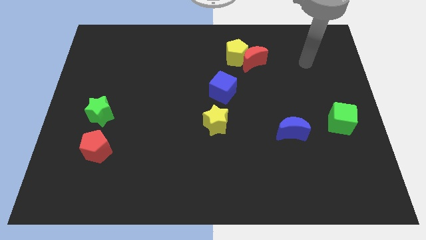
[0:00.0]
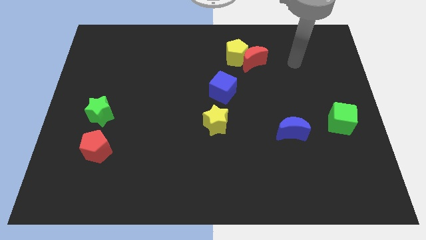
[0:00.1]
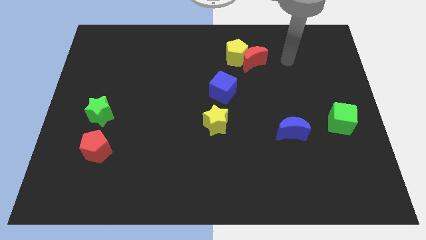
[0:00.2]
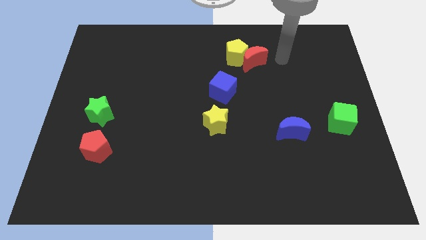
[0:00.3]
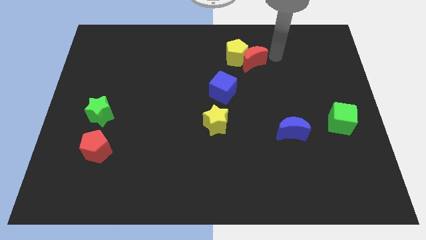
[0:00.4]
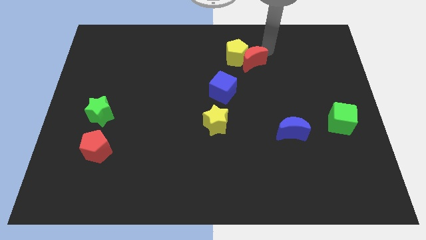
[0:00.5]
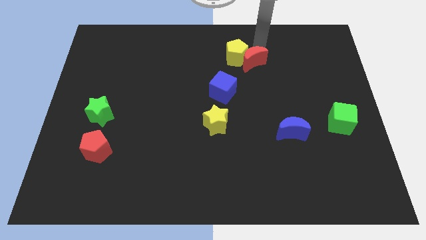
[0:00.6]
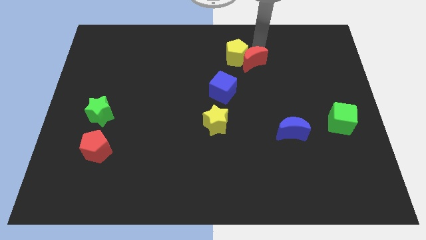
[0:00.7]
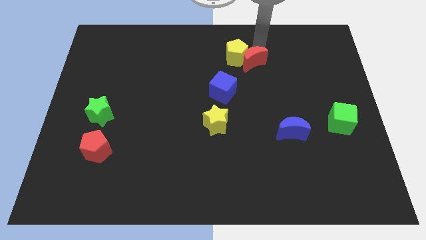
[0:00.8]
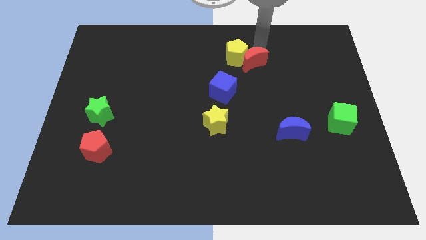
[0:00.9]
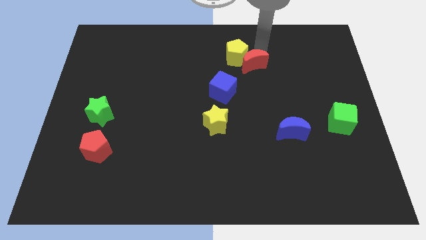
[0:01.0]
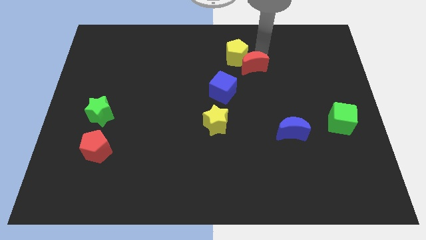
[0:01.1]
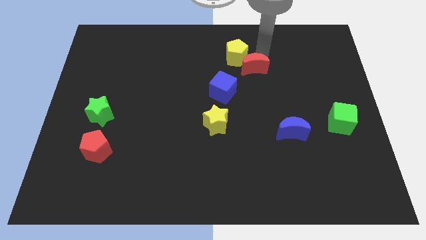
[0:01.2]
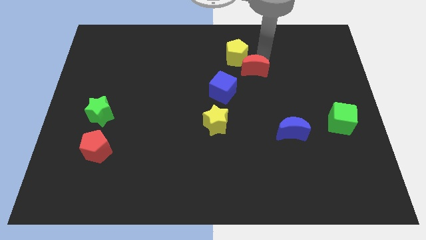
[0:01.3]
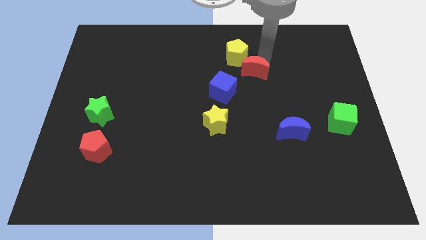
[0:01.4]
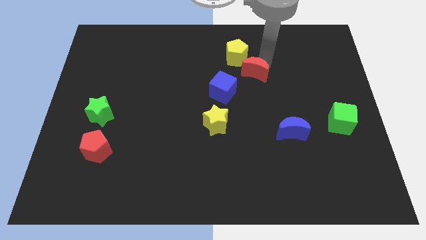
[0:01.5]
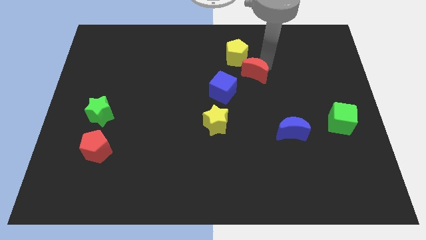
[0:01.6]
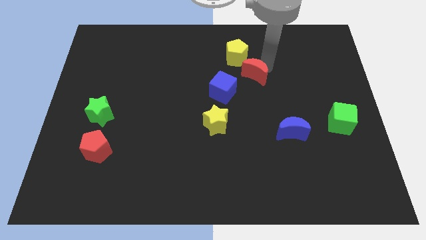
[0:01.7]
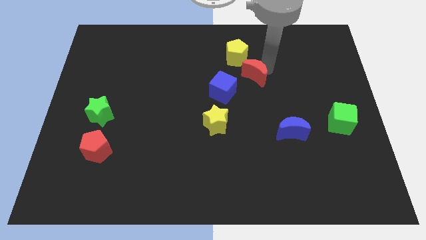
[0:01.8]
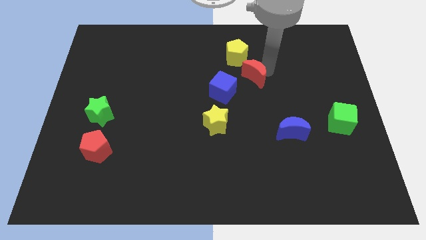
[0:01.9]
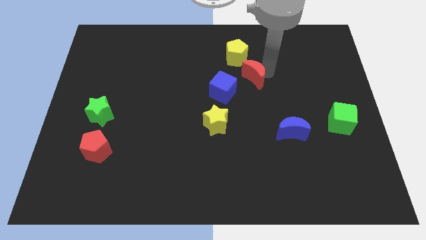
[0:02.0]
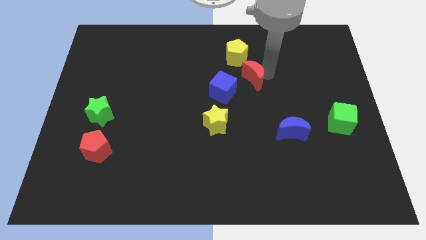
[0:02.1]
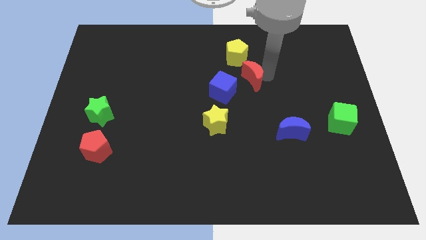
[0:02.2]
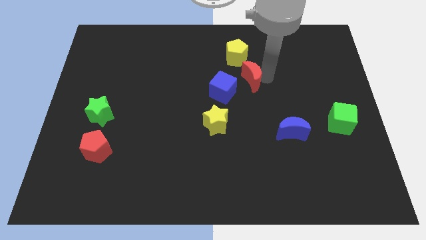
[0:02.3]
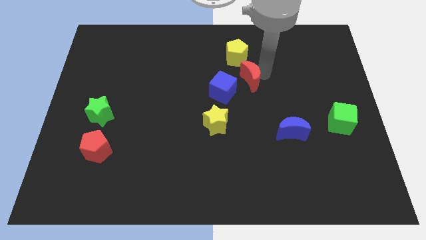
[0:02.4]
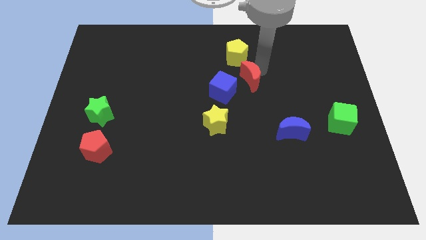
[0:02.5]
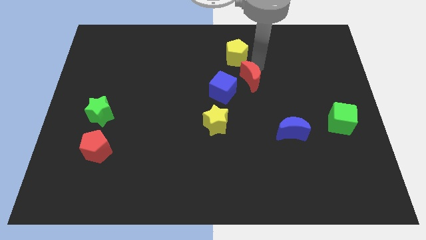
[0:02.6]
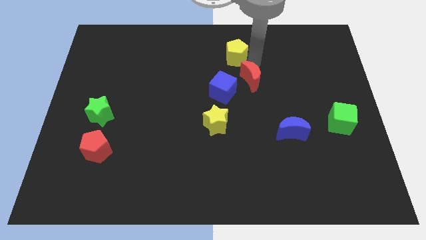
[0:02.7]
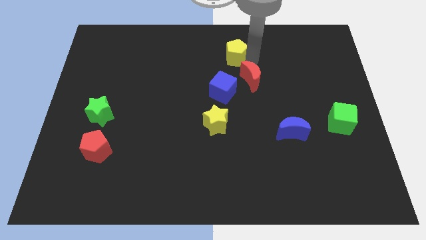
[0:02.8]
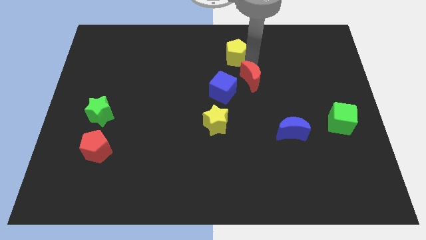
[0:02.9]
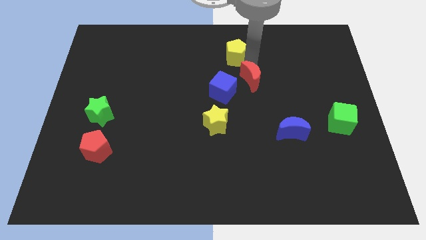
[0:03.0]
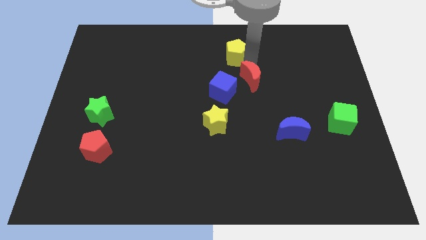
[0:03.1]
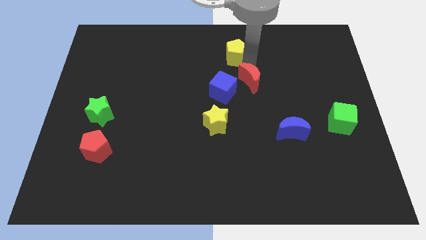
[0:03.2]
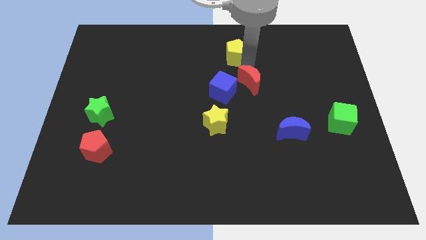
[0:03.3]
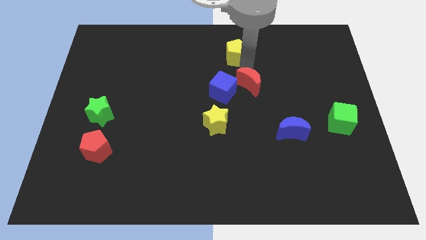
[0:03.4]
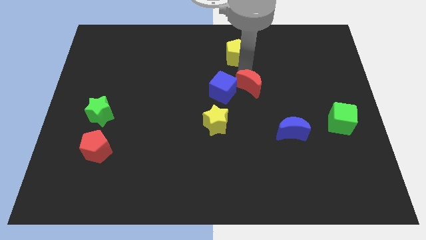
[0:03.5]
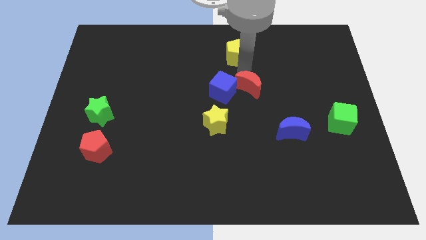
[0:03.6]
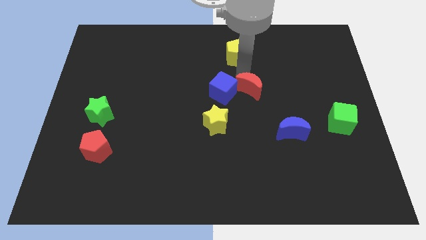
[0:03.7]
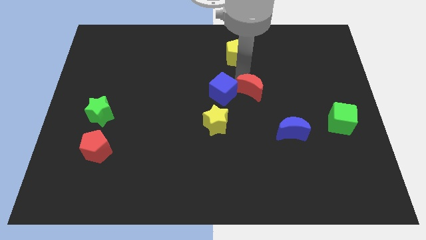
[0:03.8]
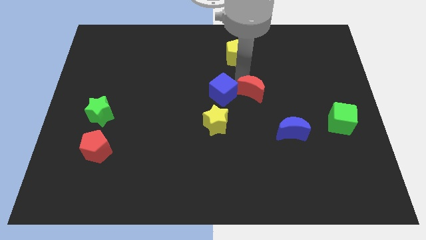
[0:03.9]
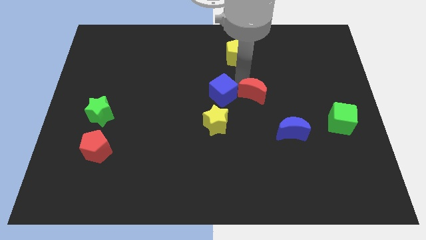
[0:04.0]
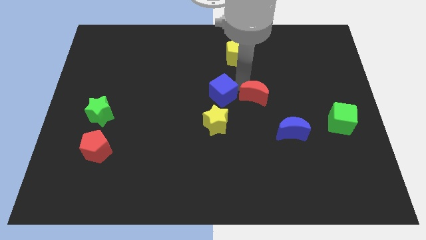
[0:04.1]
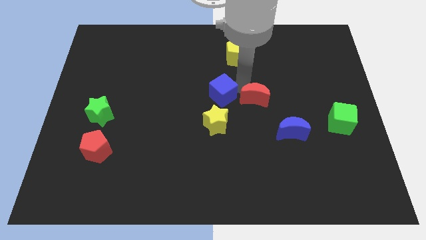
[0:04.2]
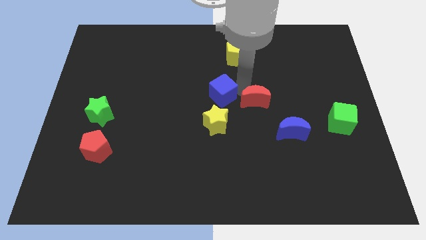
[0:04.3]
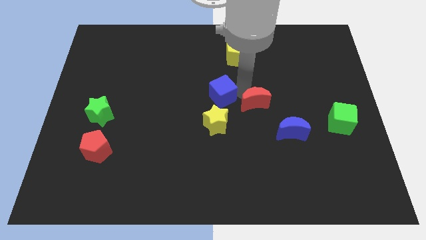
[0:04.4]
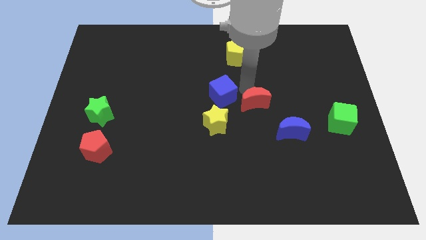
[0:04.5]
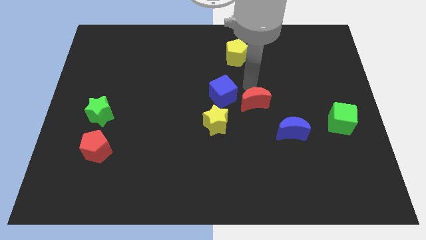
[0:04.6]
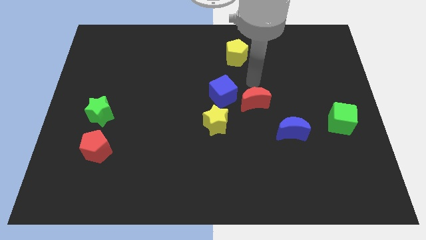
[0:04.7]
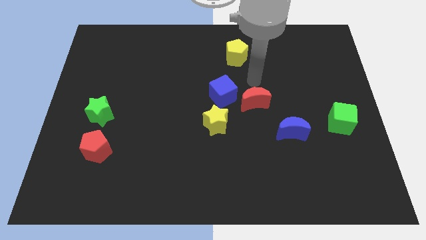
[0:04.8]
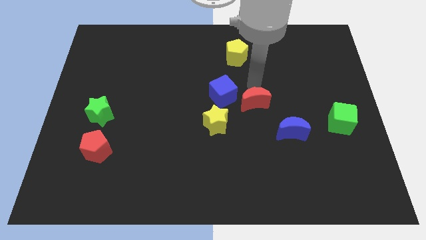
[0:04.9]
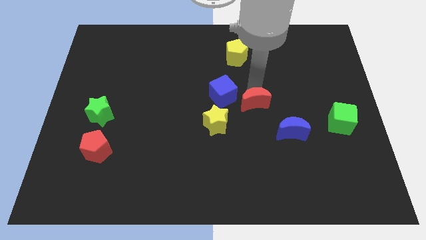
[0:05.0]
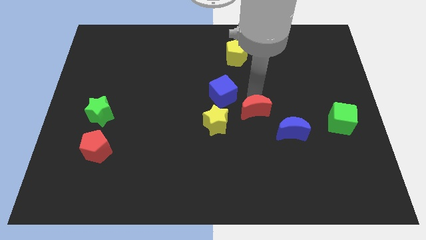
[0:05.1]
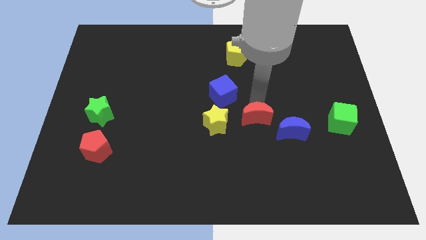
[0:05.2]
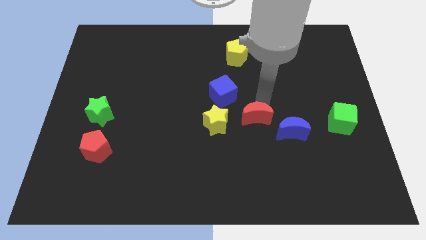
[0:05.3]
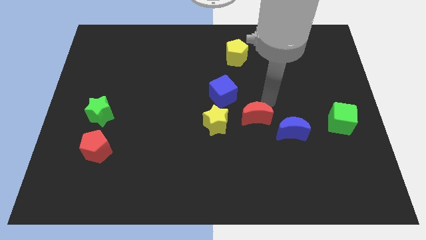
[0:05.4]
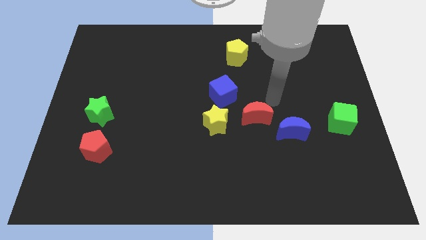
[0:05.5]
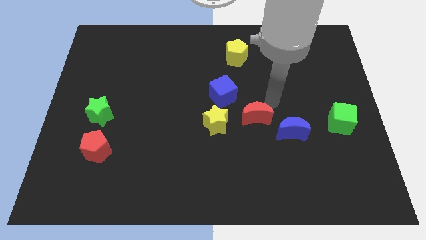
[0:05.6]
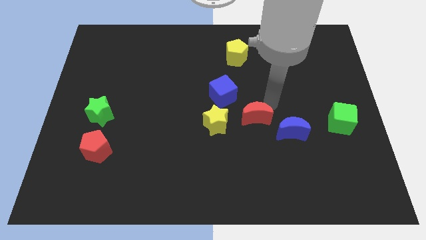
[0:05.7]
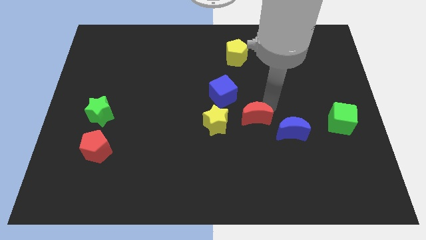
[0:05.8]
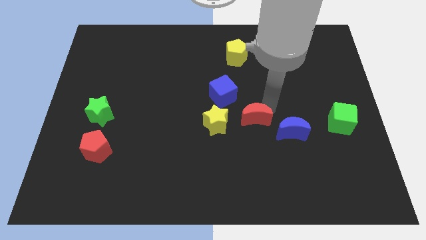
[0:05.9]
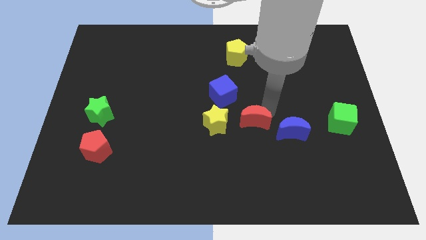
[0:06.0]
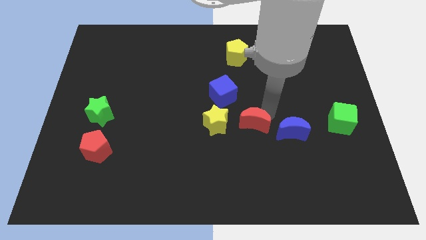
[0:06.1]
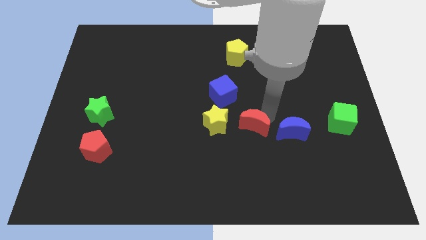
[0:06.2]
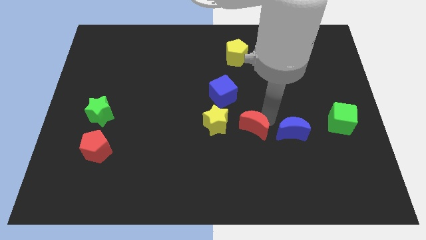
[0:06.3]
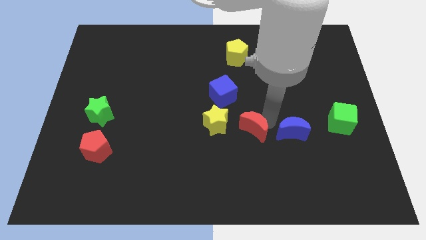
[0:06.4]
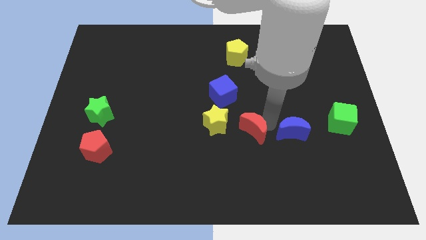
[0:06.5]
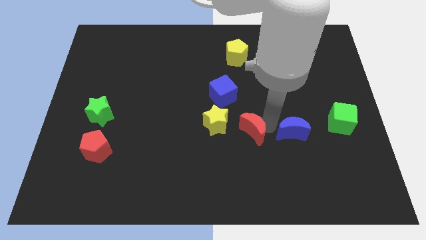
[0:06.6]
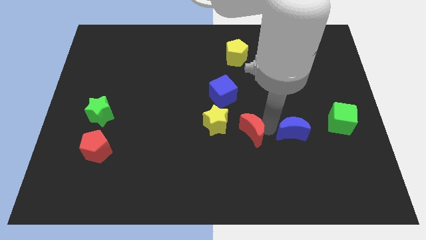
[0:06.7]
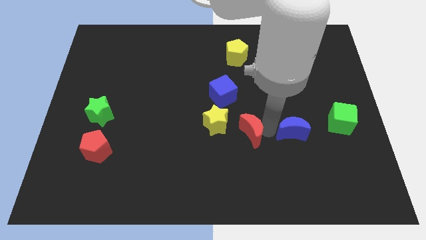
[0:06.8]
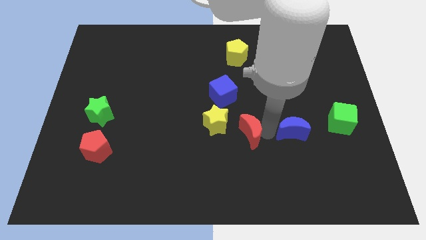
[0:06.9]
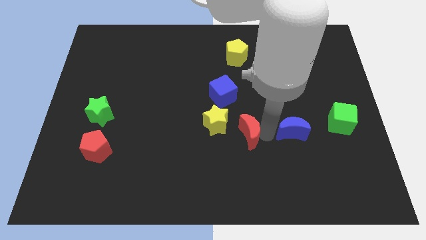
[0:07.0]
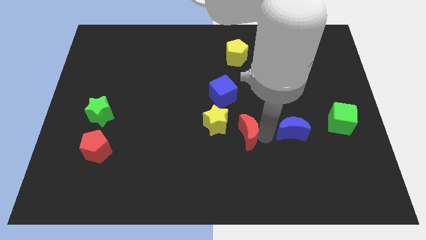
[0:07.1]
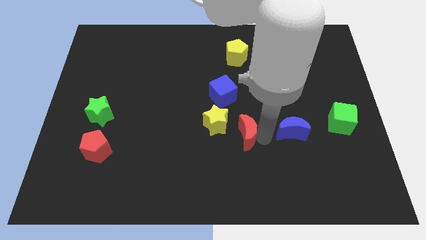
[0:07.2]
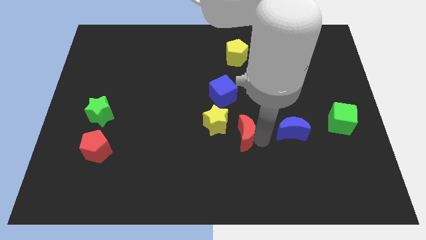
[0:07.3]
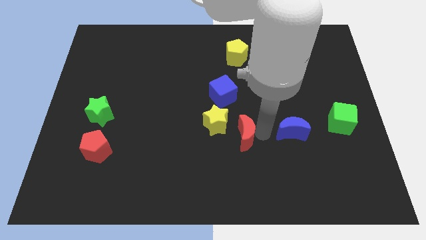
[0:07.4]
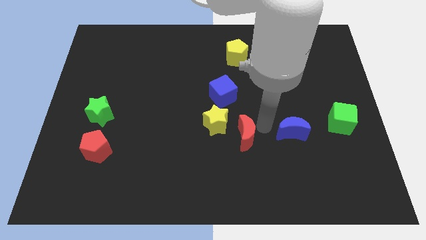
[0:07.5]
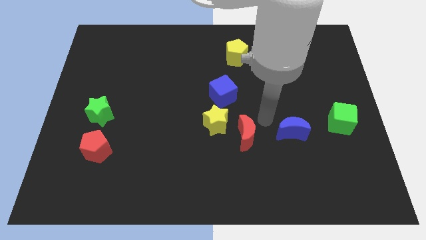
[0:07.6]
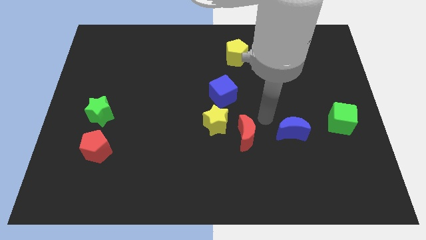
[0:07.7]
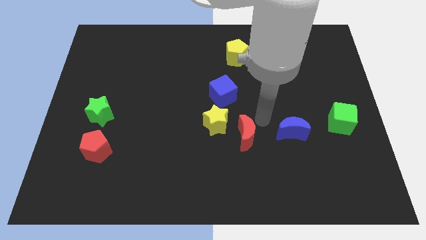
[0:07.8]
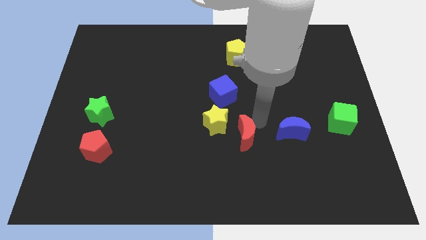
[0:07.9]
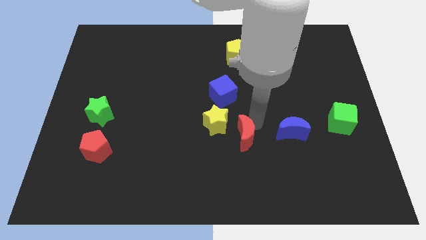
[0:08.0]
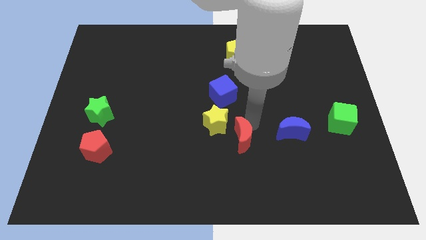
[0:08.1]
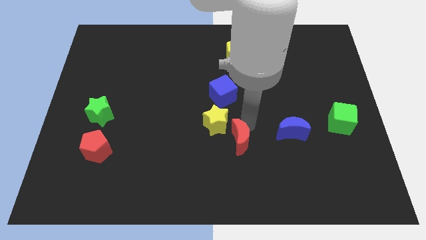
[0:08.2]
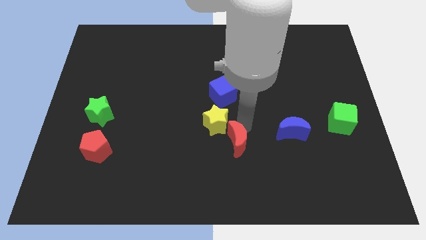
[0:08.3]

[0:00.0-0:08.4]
push the red moon to the bottom side of the yellow star
